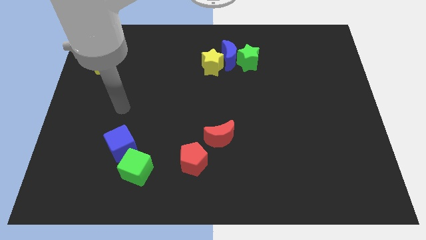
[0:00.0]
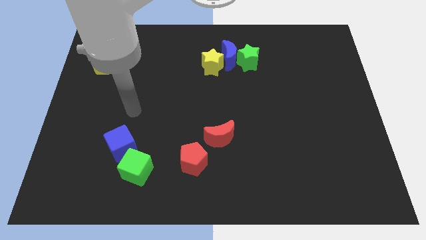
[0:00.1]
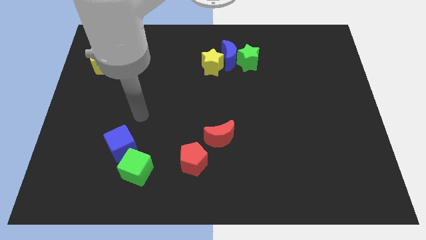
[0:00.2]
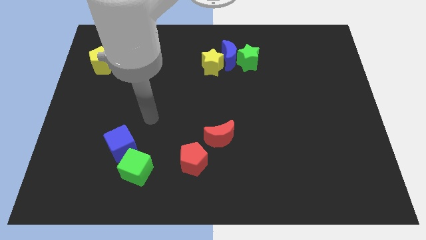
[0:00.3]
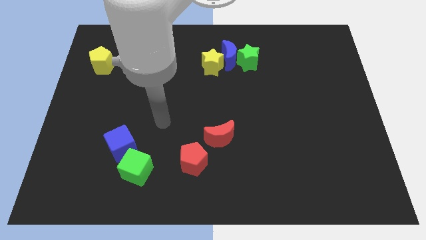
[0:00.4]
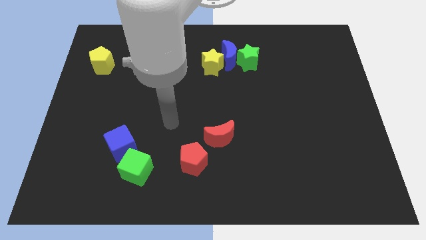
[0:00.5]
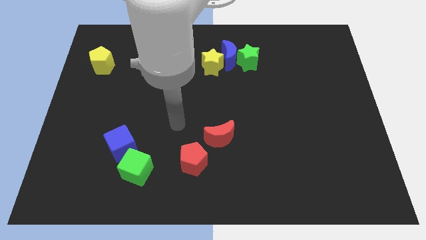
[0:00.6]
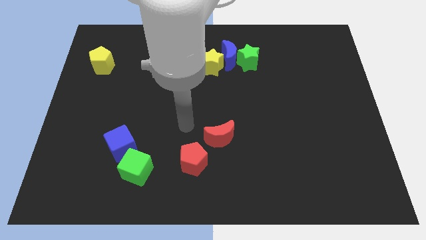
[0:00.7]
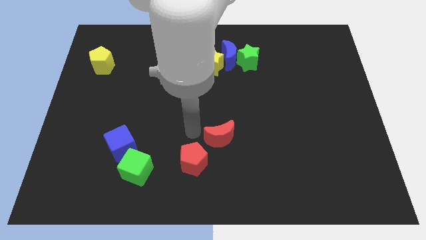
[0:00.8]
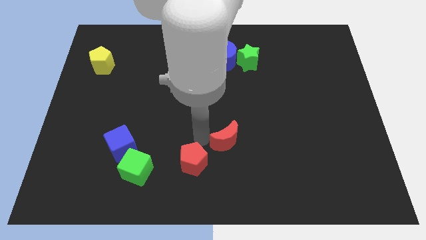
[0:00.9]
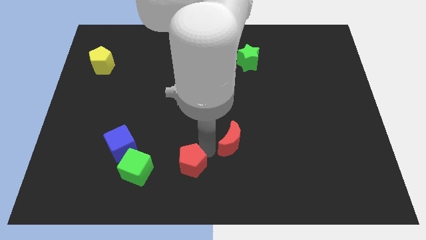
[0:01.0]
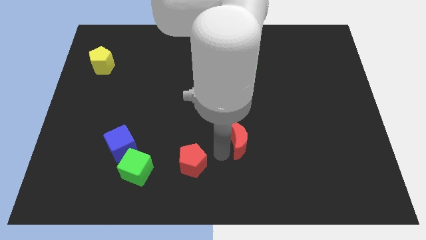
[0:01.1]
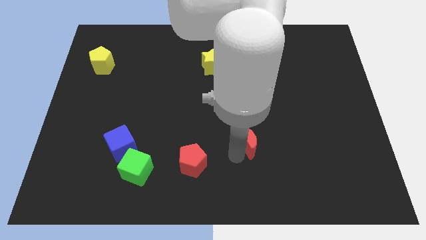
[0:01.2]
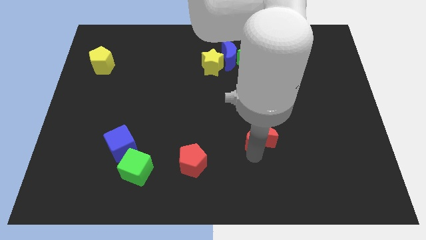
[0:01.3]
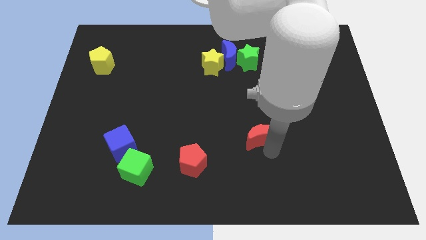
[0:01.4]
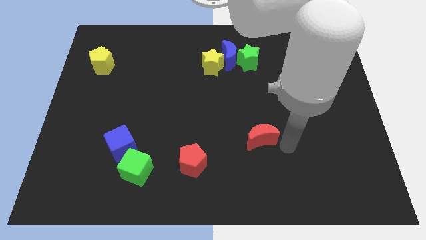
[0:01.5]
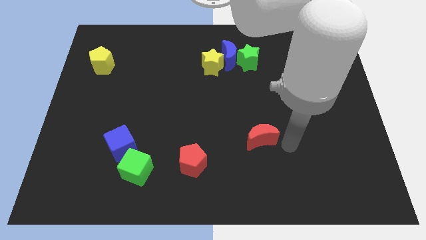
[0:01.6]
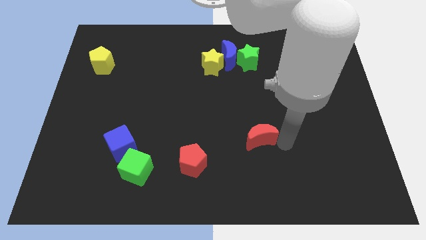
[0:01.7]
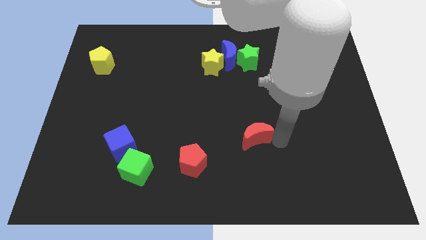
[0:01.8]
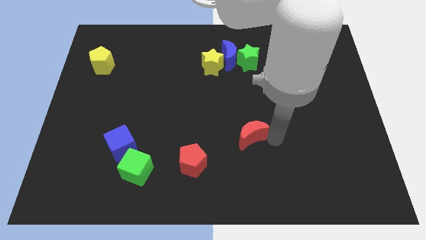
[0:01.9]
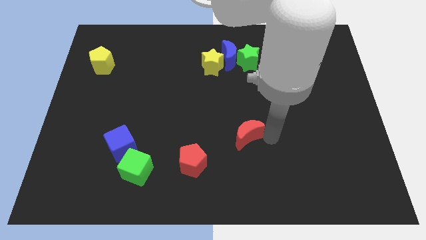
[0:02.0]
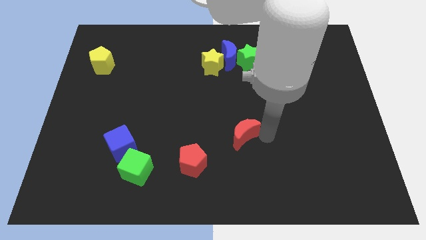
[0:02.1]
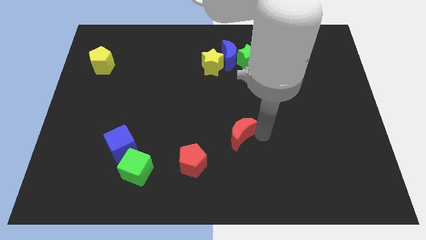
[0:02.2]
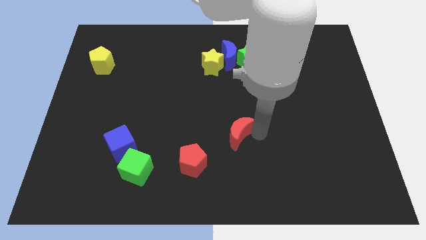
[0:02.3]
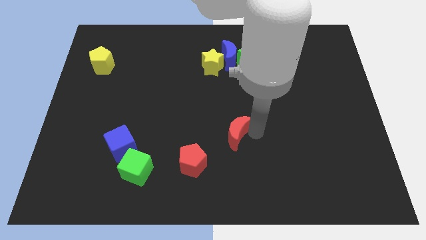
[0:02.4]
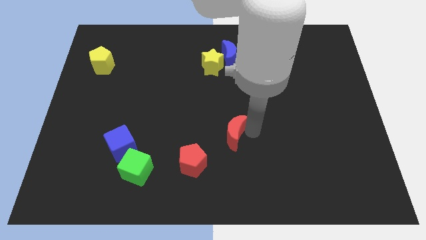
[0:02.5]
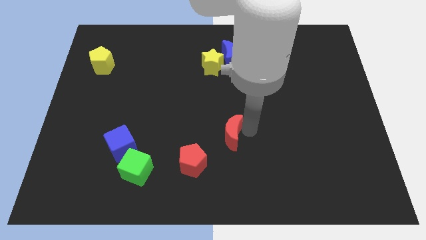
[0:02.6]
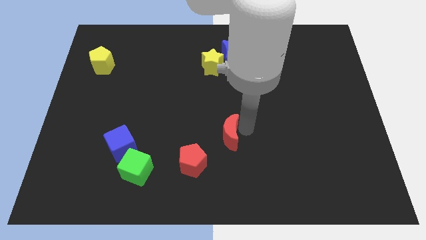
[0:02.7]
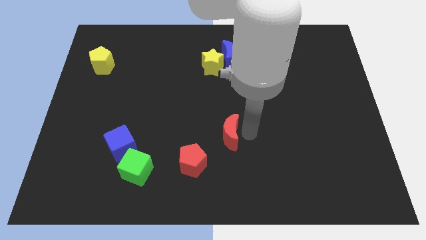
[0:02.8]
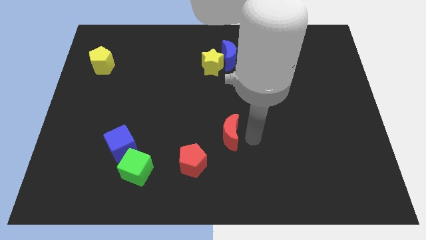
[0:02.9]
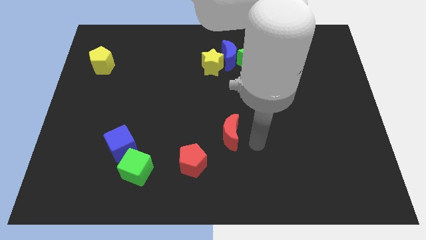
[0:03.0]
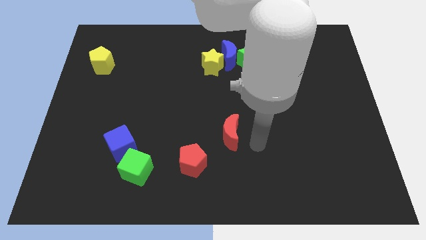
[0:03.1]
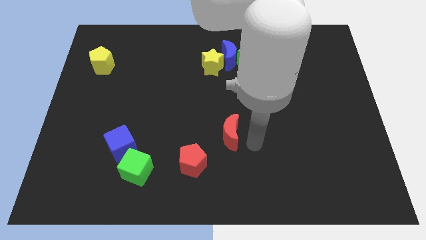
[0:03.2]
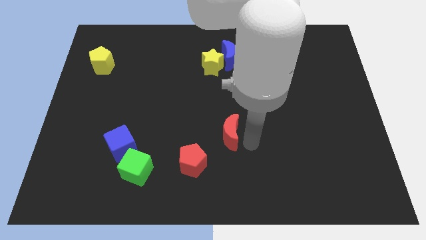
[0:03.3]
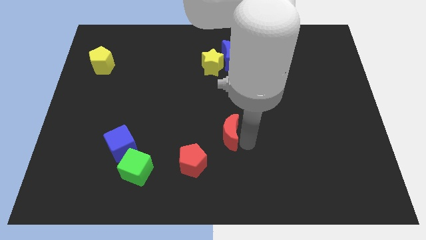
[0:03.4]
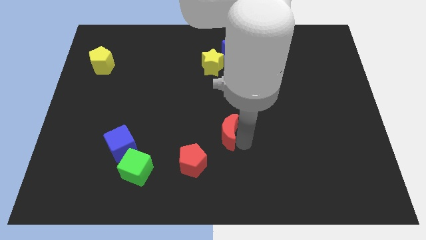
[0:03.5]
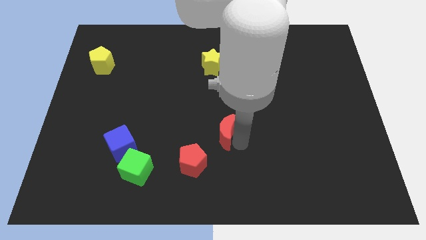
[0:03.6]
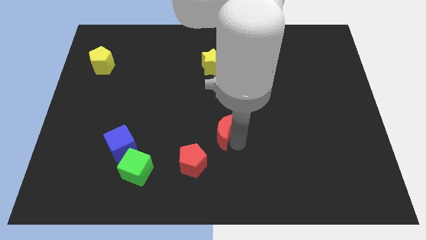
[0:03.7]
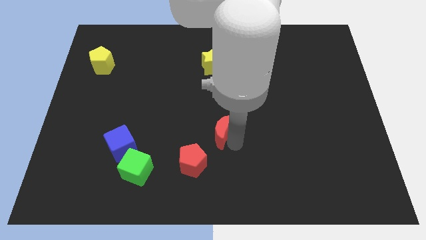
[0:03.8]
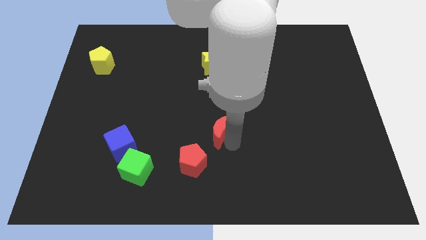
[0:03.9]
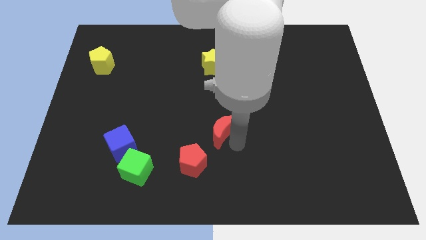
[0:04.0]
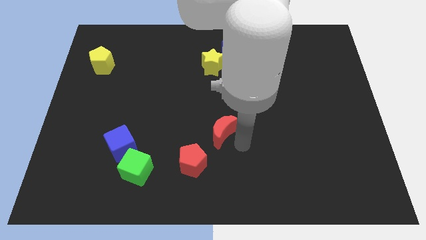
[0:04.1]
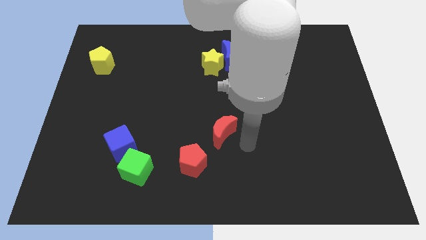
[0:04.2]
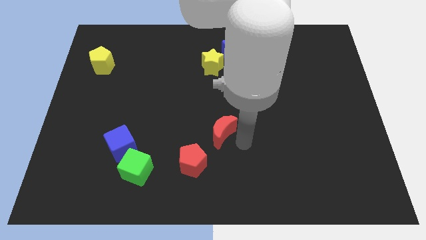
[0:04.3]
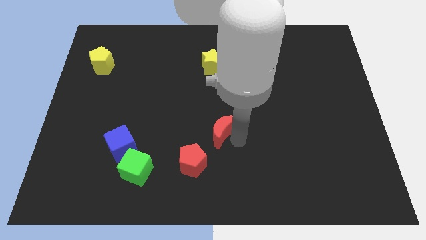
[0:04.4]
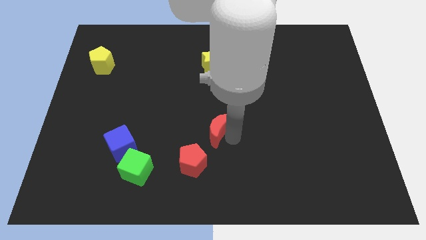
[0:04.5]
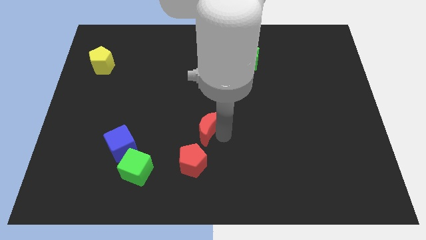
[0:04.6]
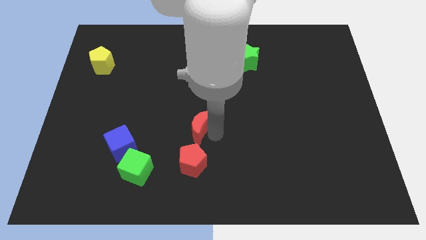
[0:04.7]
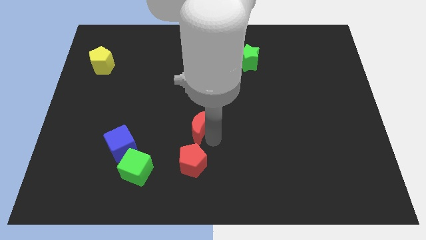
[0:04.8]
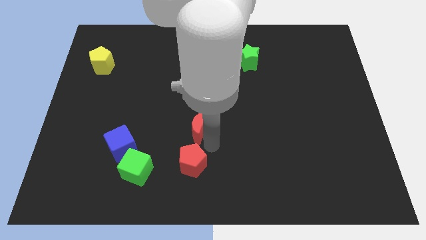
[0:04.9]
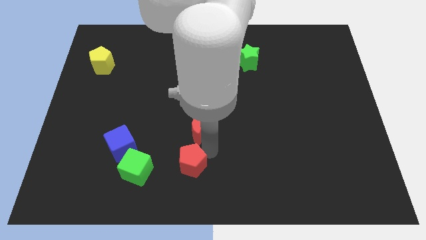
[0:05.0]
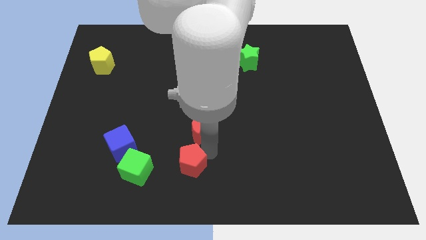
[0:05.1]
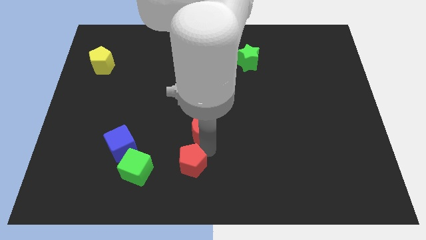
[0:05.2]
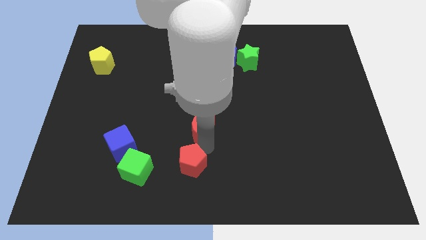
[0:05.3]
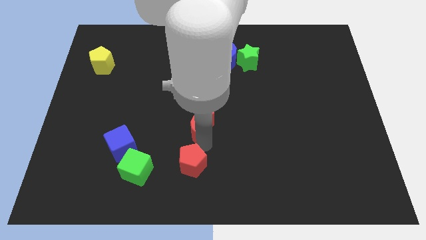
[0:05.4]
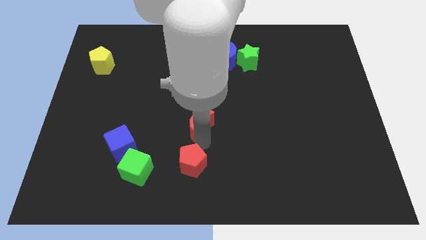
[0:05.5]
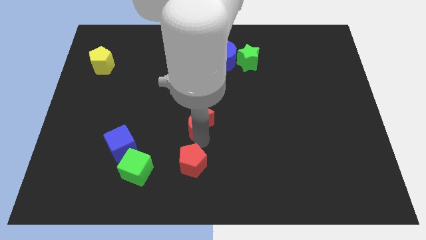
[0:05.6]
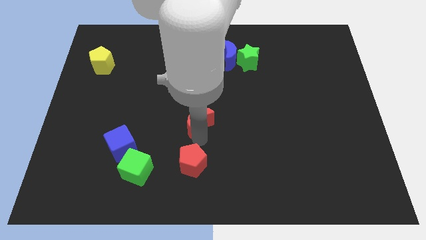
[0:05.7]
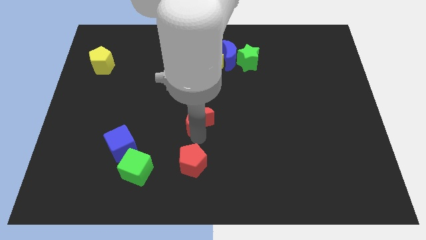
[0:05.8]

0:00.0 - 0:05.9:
slide the red moon a little bit upwards and to the left diagonally

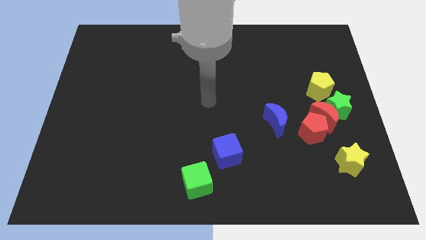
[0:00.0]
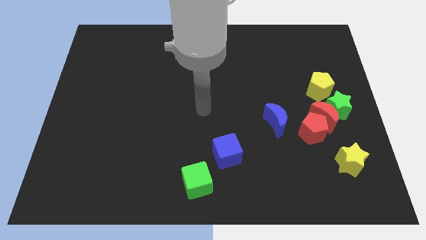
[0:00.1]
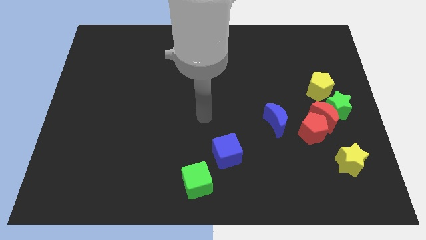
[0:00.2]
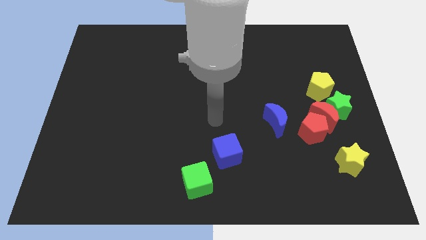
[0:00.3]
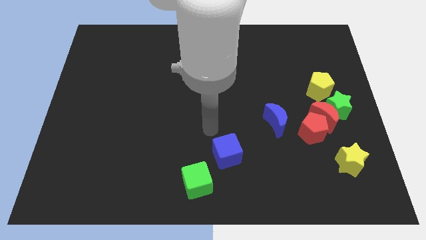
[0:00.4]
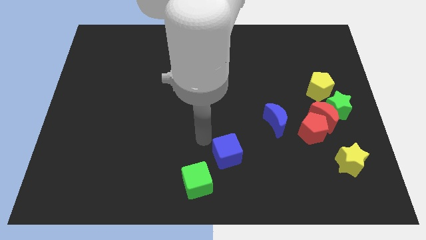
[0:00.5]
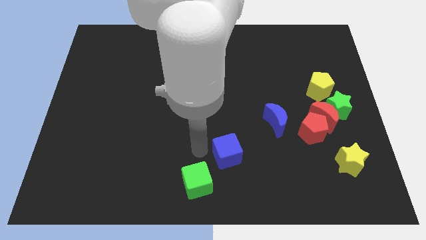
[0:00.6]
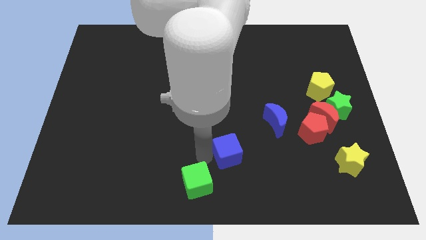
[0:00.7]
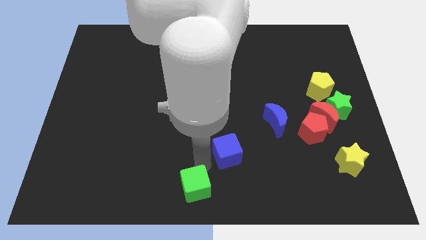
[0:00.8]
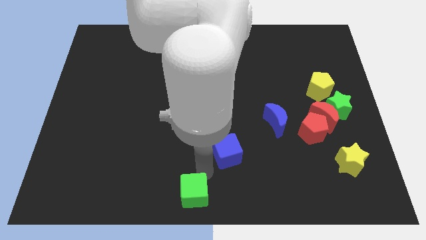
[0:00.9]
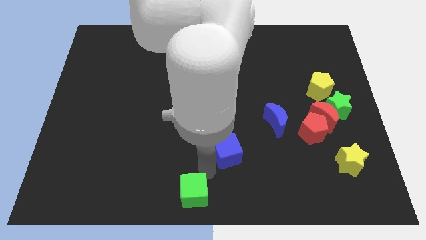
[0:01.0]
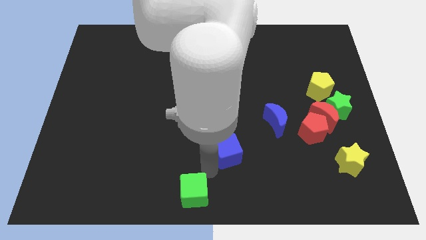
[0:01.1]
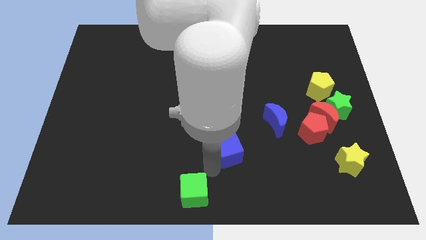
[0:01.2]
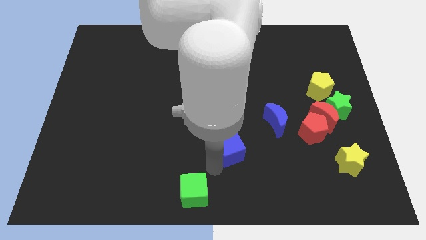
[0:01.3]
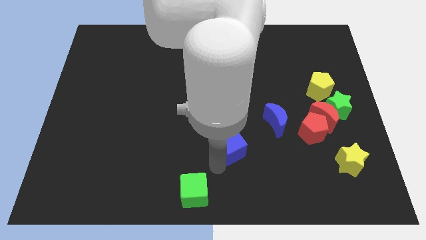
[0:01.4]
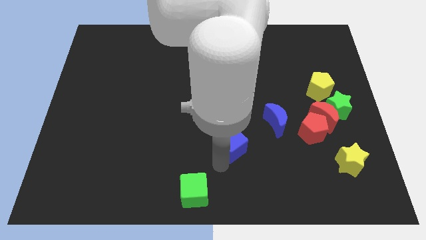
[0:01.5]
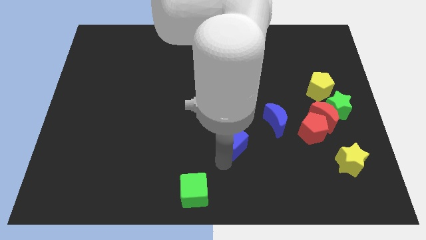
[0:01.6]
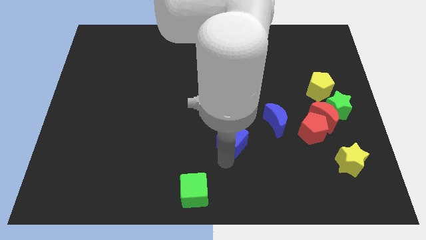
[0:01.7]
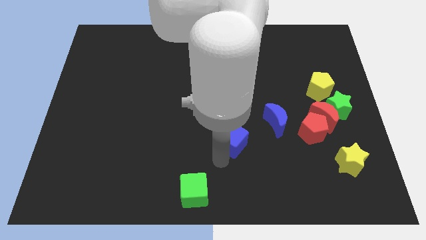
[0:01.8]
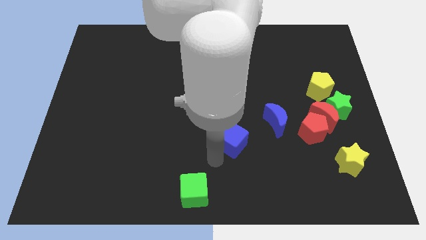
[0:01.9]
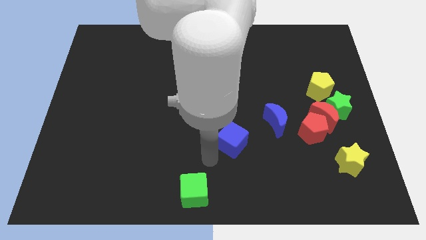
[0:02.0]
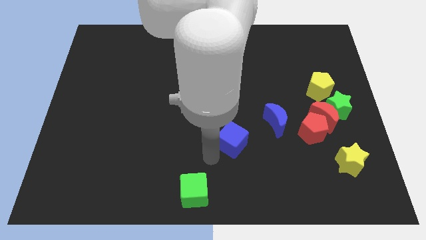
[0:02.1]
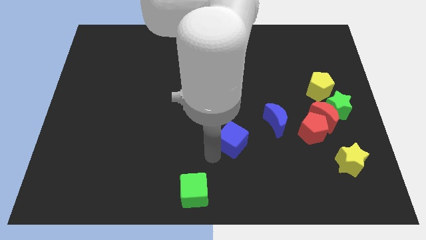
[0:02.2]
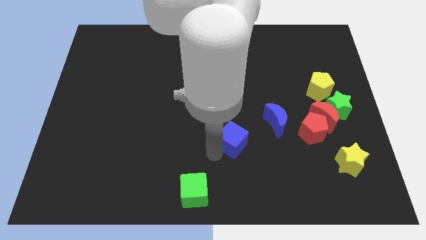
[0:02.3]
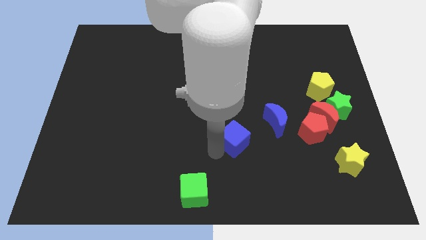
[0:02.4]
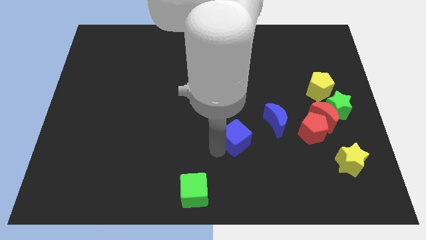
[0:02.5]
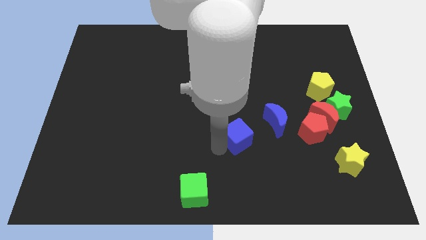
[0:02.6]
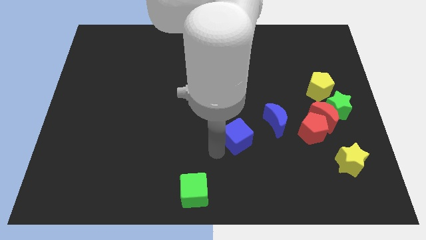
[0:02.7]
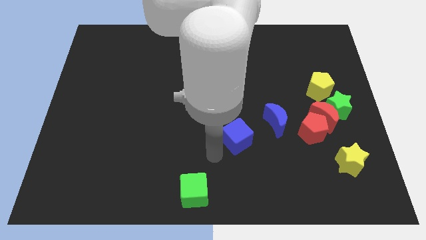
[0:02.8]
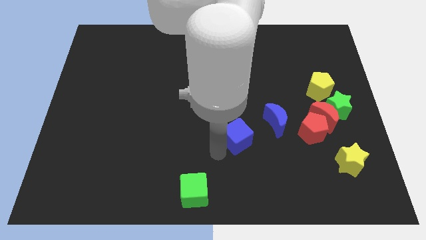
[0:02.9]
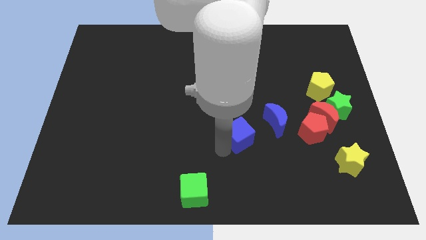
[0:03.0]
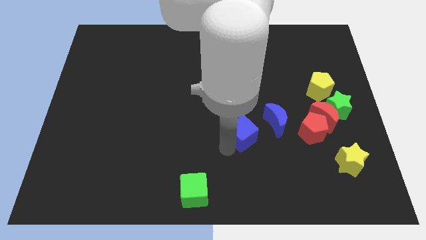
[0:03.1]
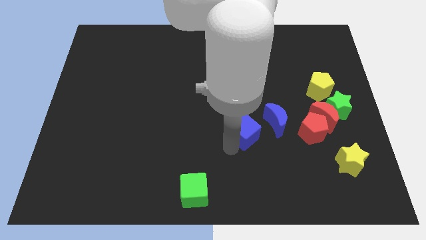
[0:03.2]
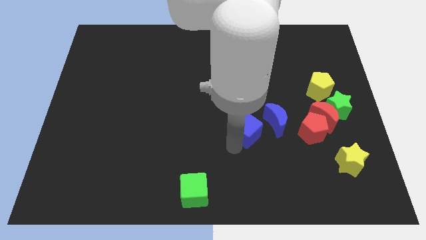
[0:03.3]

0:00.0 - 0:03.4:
slightly push the blue cube up and to the right
